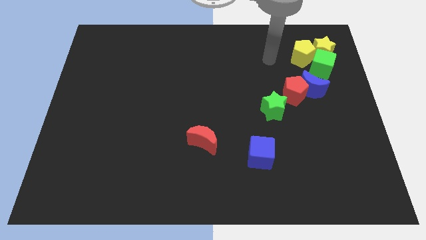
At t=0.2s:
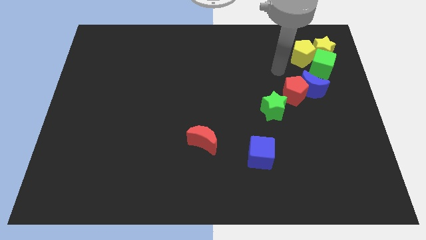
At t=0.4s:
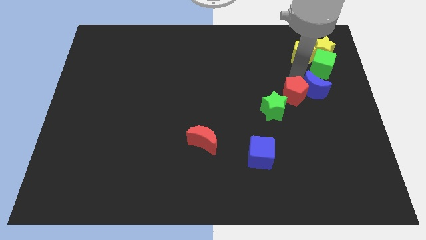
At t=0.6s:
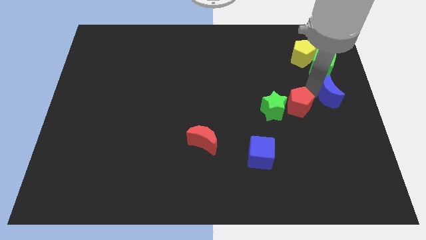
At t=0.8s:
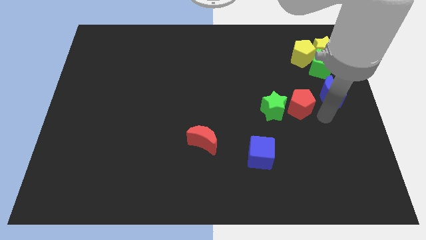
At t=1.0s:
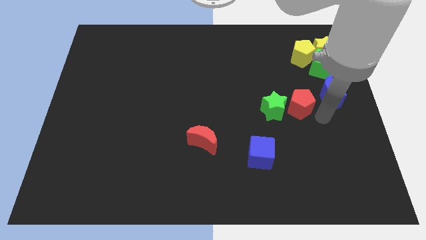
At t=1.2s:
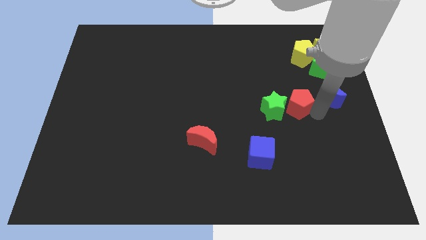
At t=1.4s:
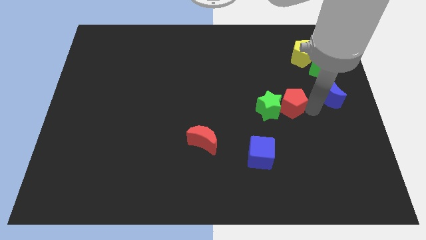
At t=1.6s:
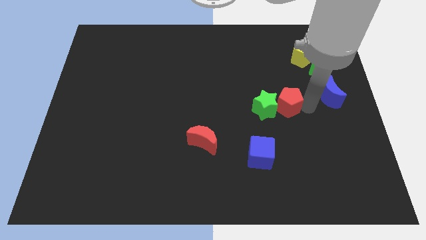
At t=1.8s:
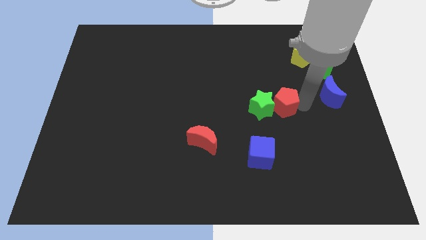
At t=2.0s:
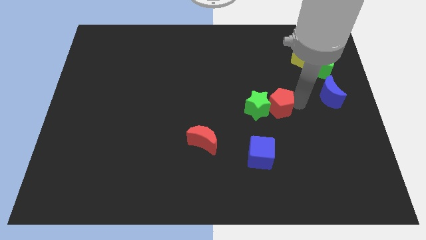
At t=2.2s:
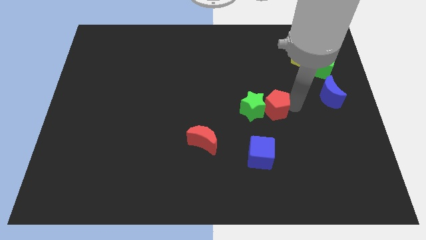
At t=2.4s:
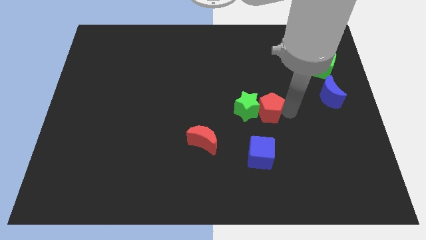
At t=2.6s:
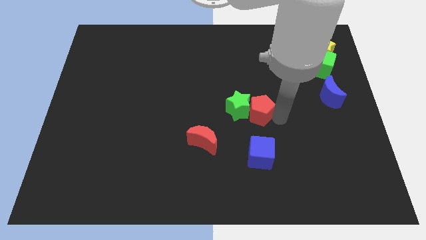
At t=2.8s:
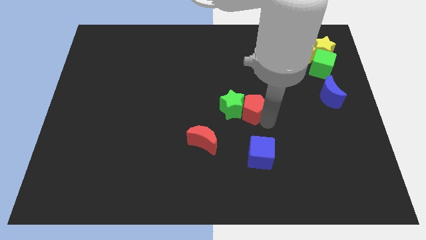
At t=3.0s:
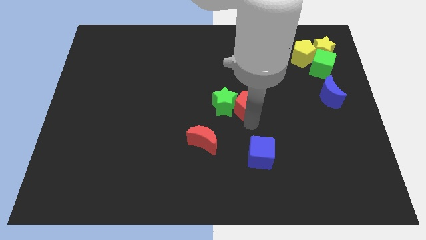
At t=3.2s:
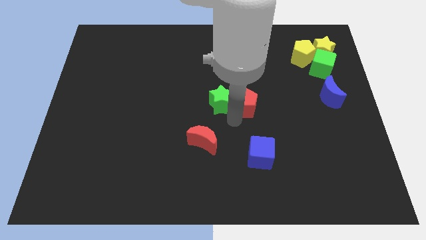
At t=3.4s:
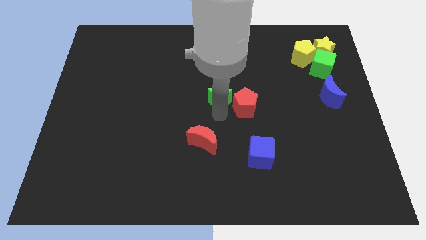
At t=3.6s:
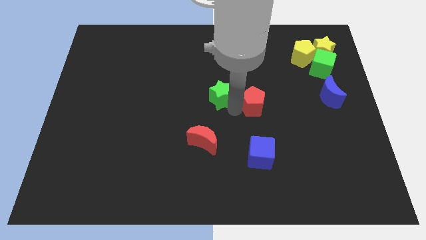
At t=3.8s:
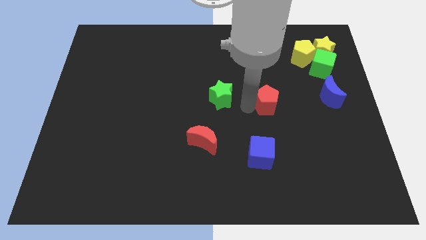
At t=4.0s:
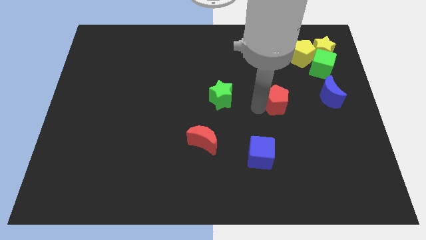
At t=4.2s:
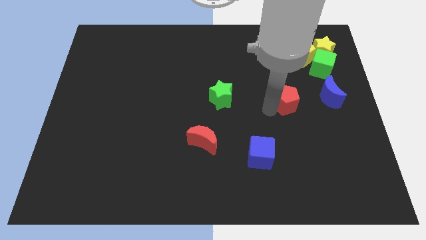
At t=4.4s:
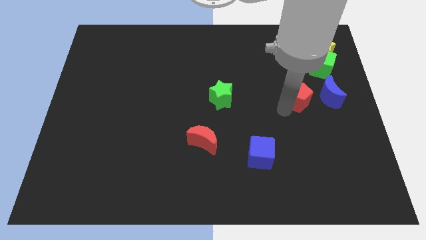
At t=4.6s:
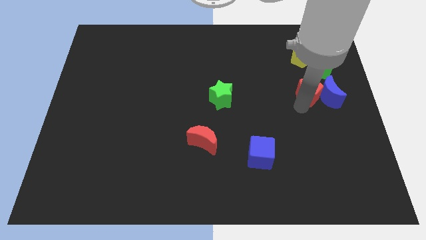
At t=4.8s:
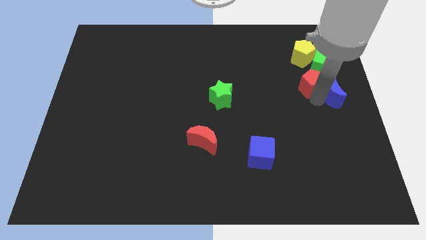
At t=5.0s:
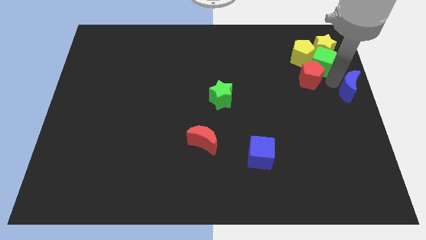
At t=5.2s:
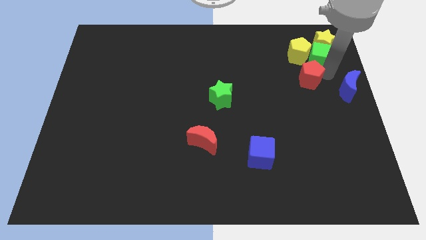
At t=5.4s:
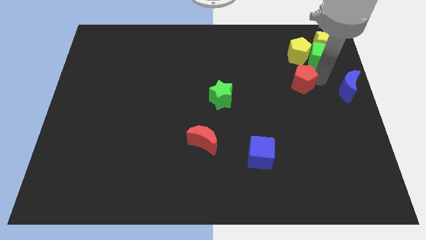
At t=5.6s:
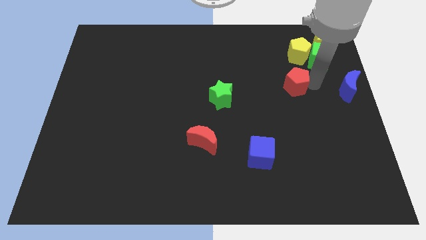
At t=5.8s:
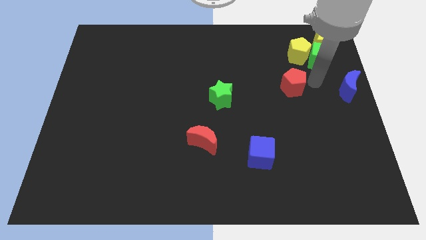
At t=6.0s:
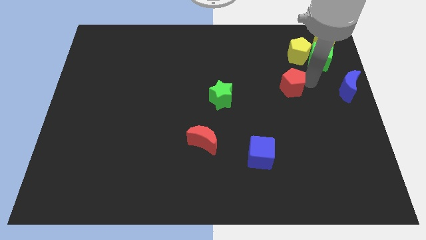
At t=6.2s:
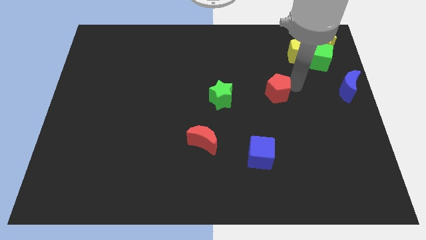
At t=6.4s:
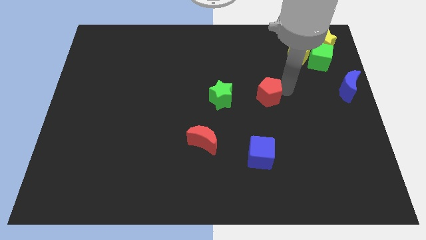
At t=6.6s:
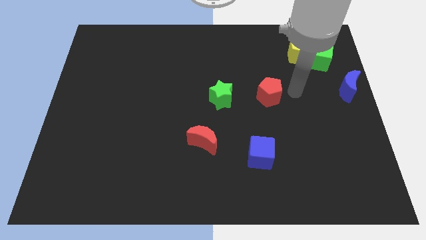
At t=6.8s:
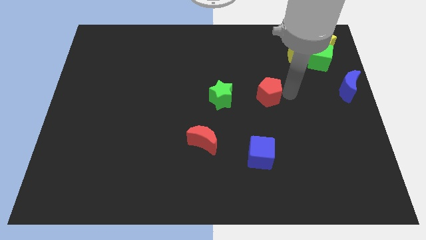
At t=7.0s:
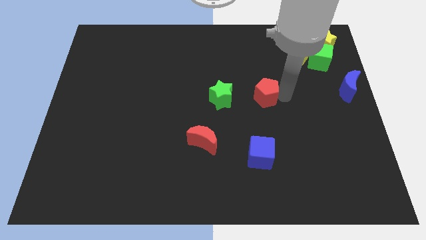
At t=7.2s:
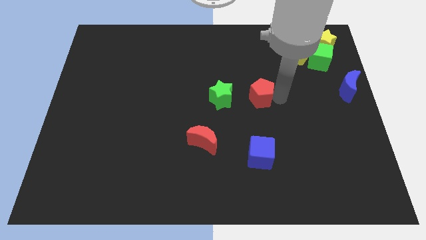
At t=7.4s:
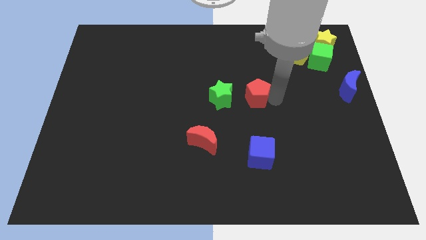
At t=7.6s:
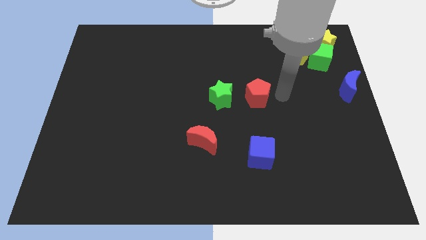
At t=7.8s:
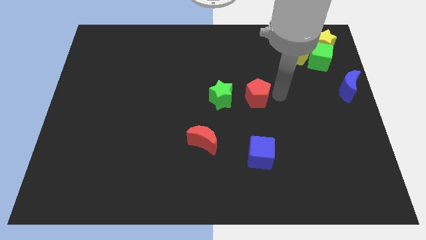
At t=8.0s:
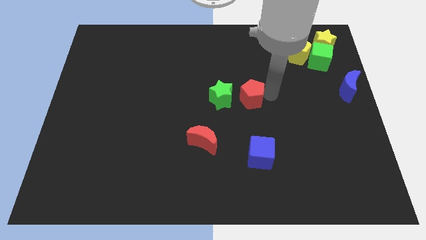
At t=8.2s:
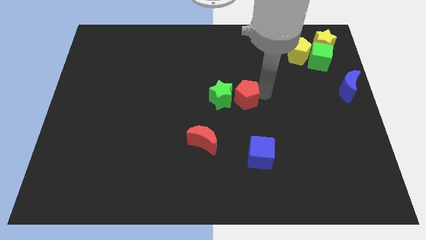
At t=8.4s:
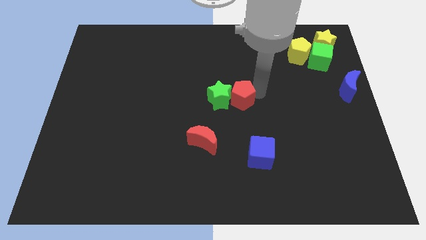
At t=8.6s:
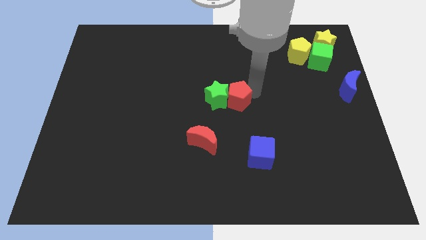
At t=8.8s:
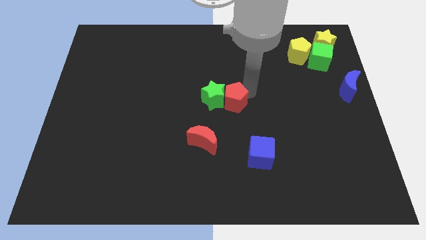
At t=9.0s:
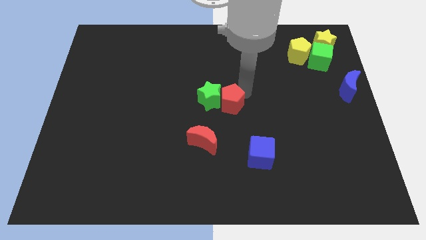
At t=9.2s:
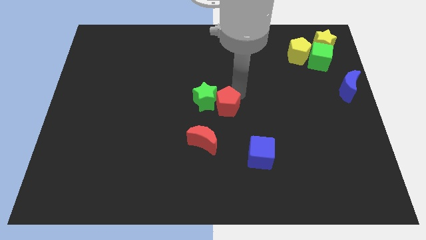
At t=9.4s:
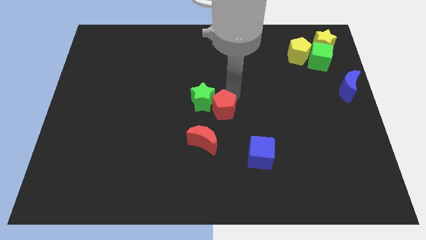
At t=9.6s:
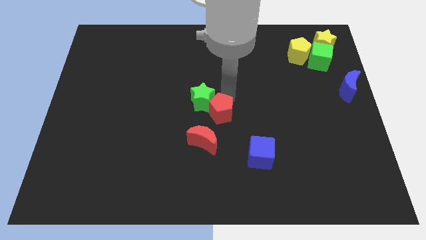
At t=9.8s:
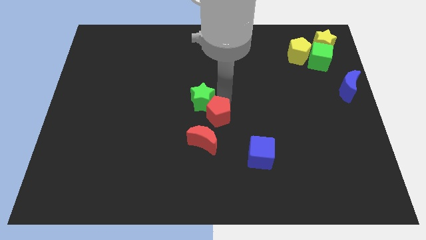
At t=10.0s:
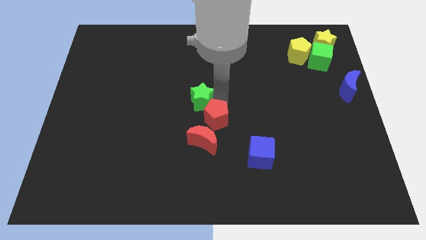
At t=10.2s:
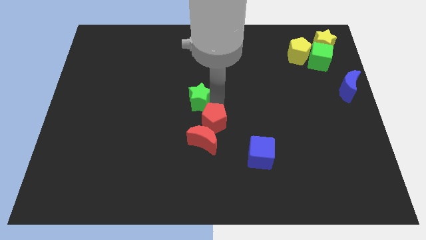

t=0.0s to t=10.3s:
put the red pentagon towards the red moon

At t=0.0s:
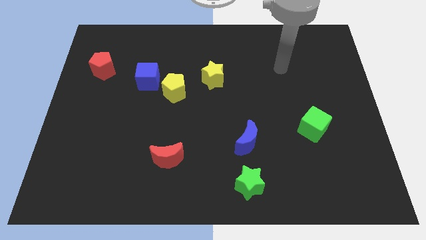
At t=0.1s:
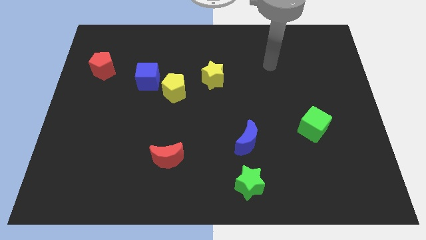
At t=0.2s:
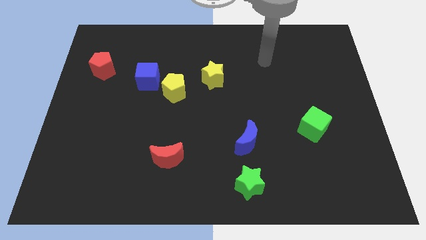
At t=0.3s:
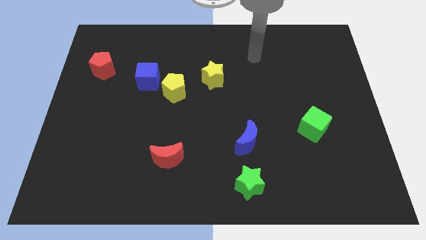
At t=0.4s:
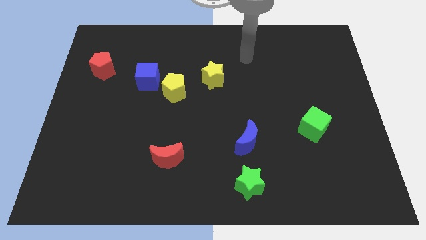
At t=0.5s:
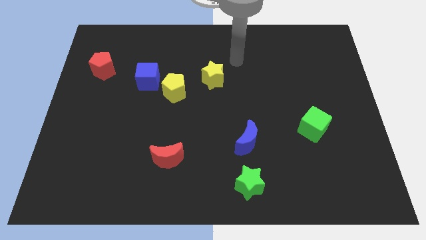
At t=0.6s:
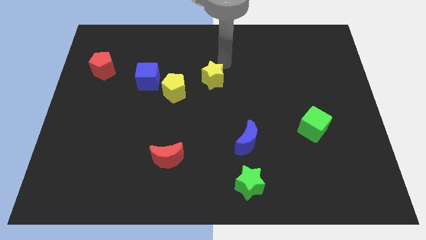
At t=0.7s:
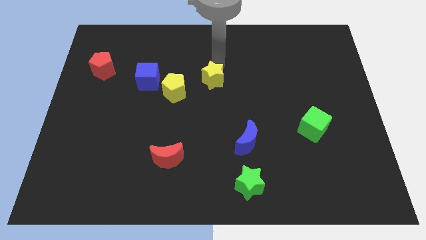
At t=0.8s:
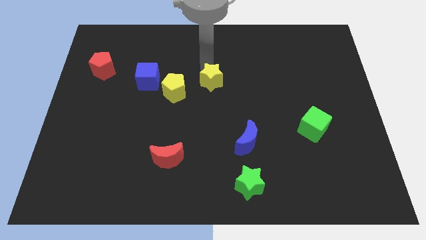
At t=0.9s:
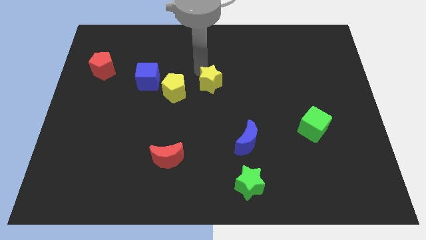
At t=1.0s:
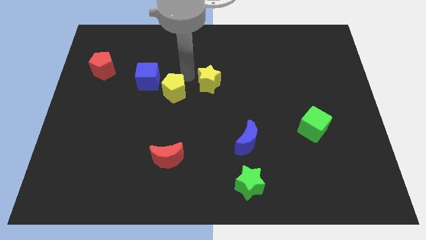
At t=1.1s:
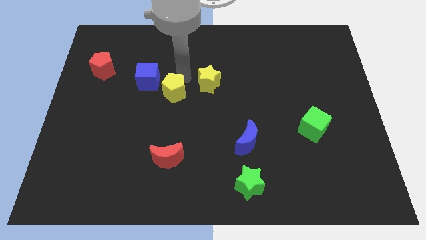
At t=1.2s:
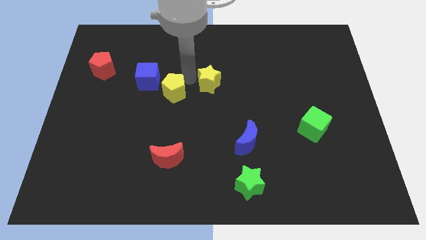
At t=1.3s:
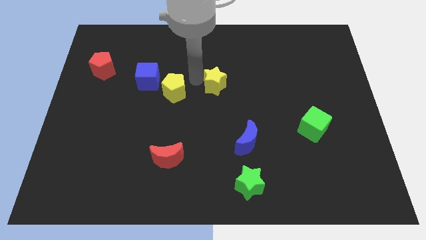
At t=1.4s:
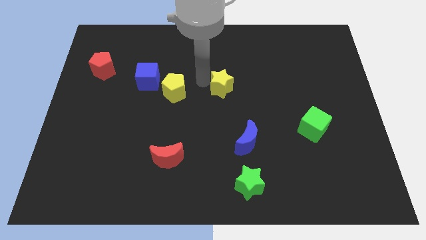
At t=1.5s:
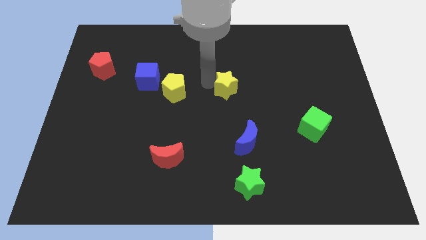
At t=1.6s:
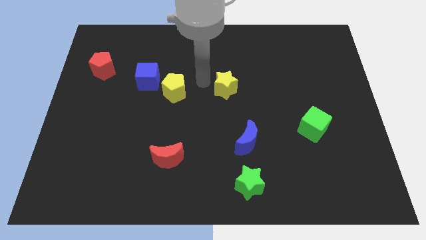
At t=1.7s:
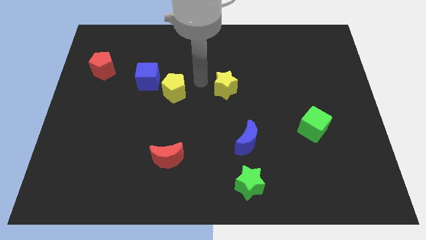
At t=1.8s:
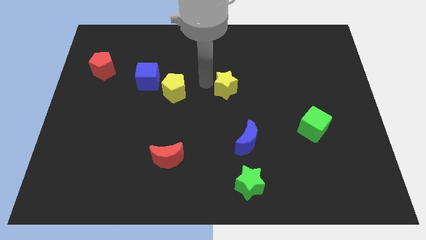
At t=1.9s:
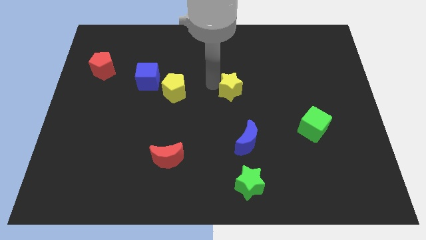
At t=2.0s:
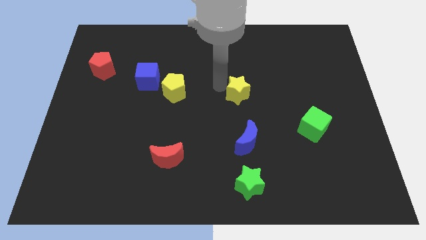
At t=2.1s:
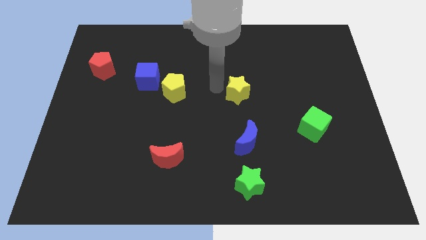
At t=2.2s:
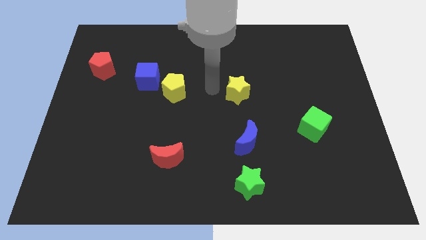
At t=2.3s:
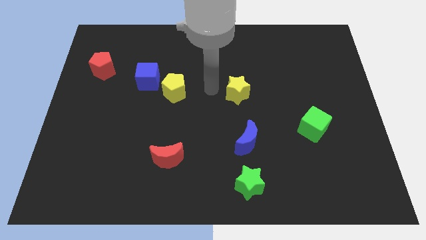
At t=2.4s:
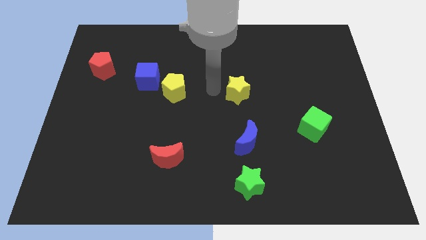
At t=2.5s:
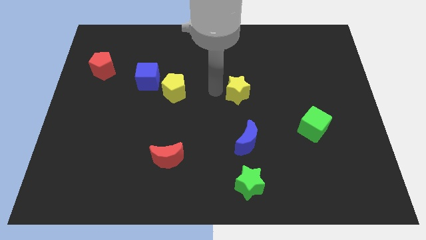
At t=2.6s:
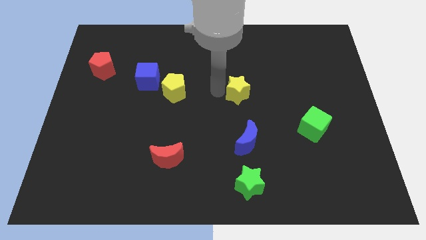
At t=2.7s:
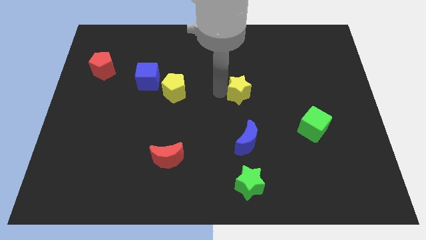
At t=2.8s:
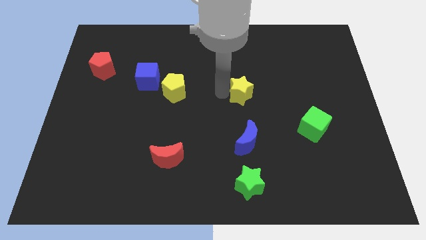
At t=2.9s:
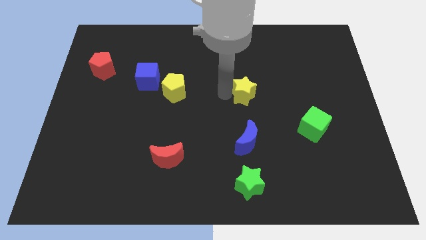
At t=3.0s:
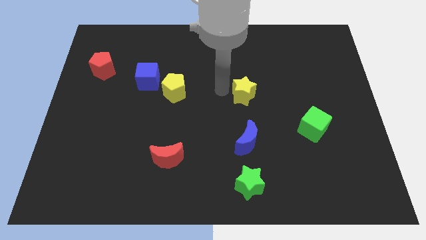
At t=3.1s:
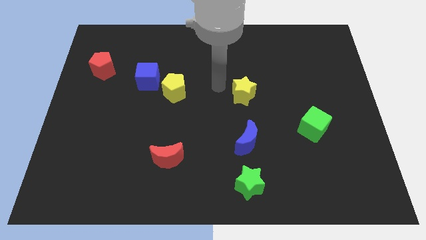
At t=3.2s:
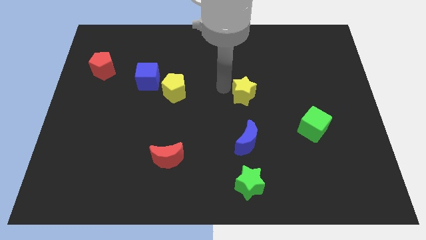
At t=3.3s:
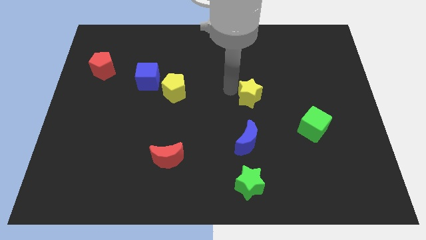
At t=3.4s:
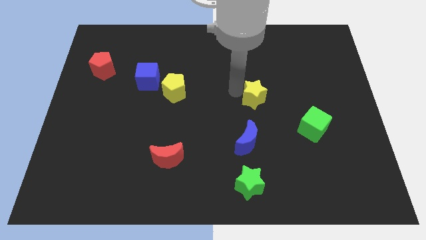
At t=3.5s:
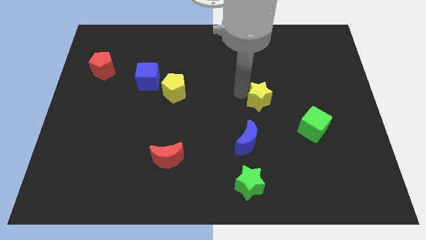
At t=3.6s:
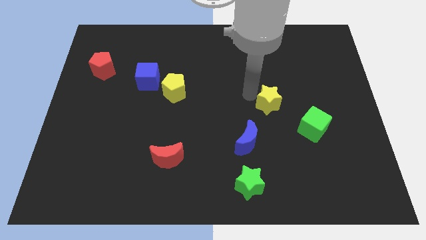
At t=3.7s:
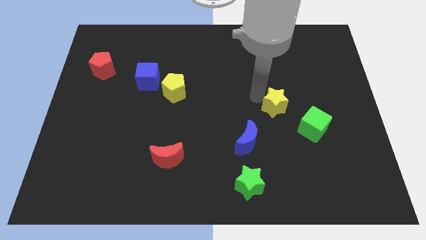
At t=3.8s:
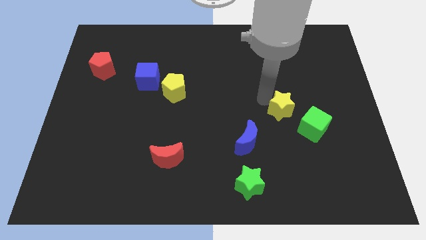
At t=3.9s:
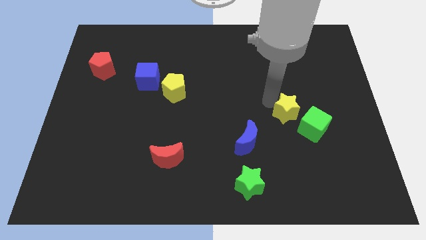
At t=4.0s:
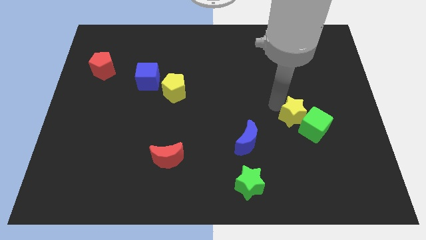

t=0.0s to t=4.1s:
put the yellow star towards the green cube
